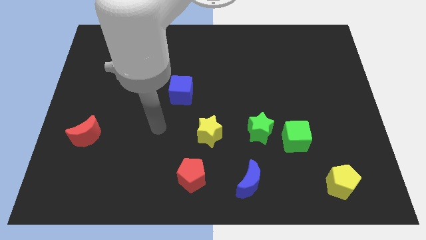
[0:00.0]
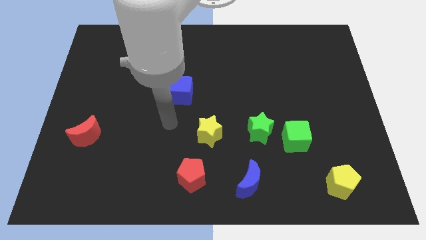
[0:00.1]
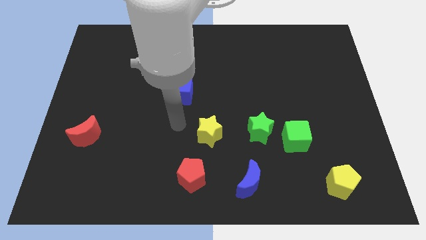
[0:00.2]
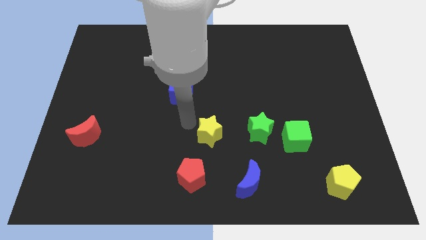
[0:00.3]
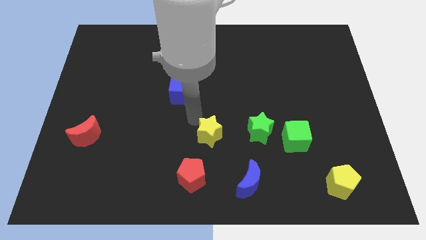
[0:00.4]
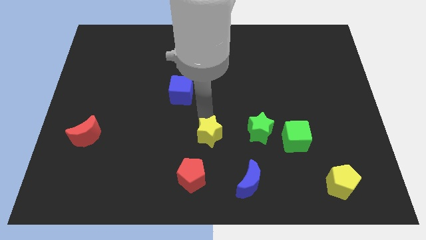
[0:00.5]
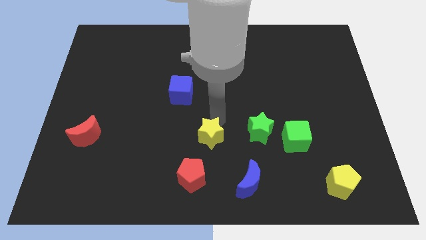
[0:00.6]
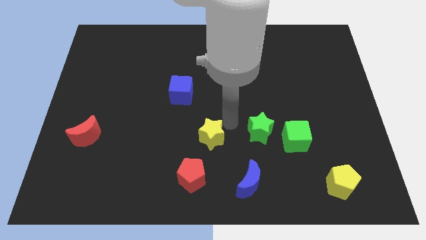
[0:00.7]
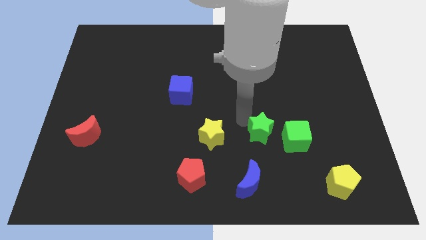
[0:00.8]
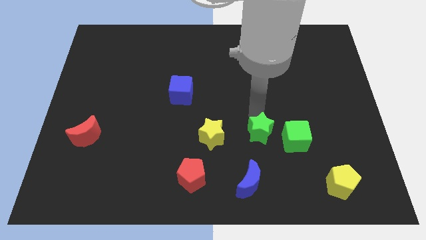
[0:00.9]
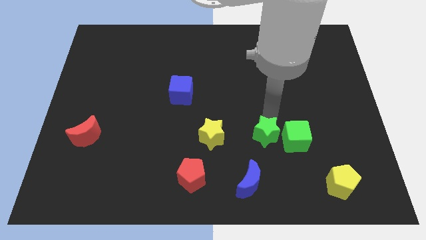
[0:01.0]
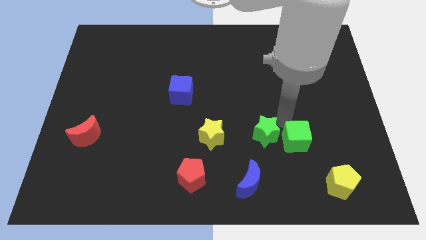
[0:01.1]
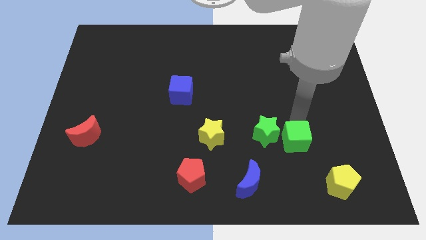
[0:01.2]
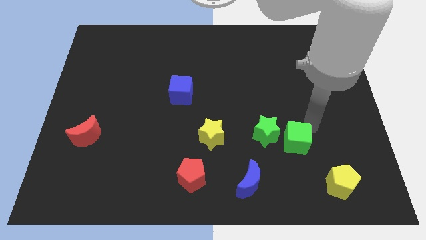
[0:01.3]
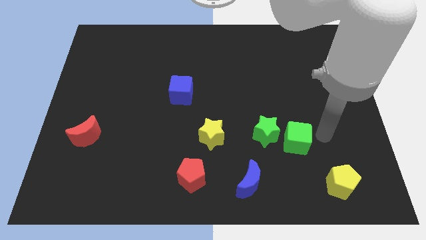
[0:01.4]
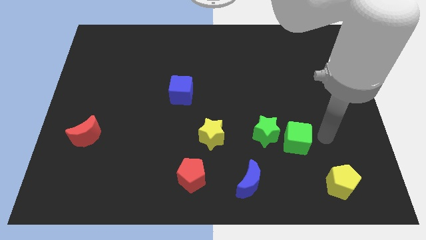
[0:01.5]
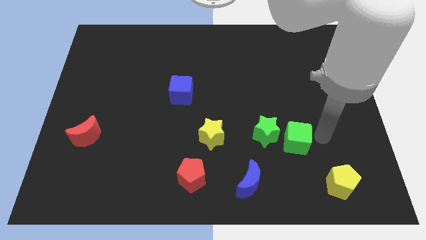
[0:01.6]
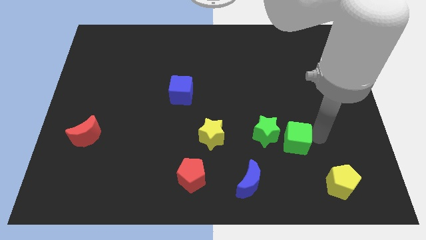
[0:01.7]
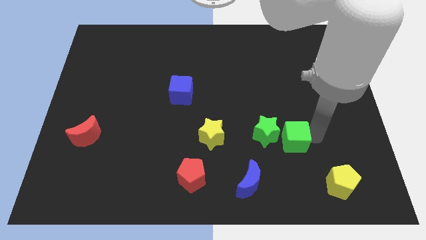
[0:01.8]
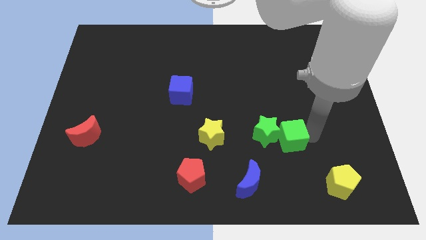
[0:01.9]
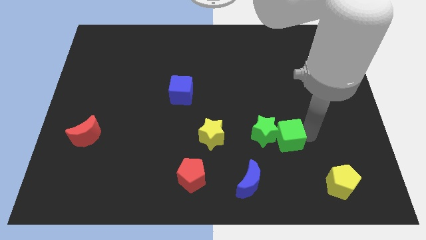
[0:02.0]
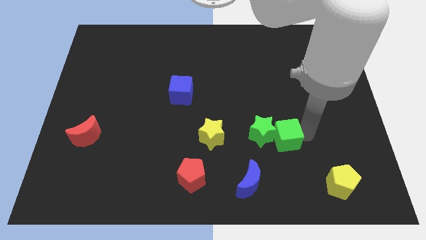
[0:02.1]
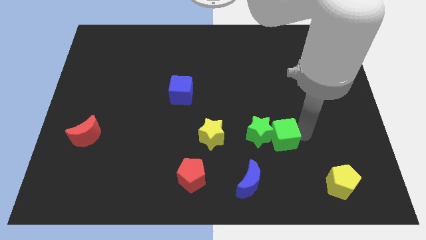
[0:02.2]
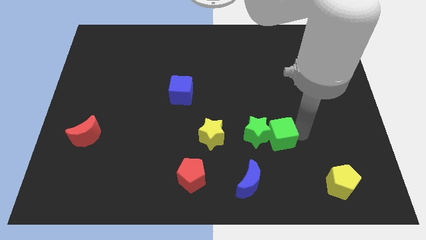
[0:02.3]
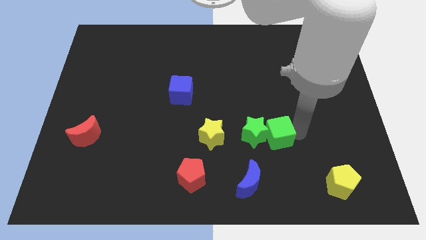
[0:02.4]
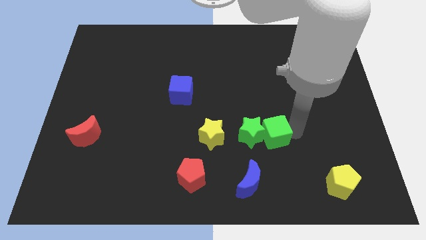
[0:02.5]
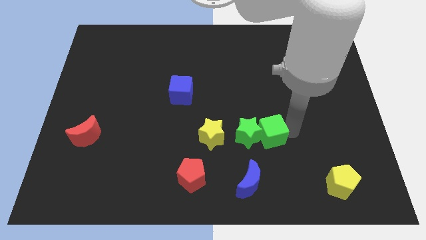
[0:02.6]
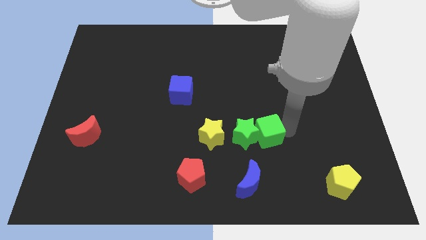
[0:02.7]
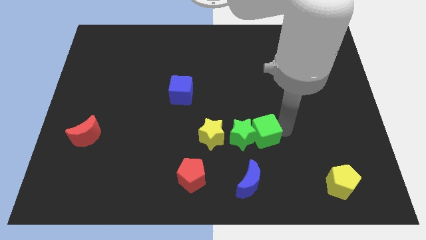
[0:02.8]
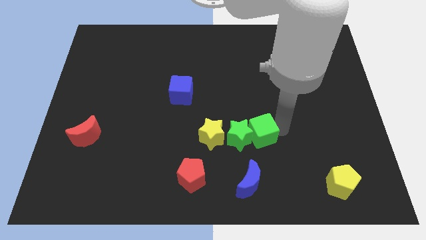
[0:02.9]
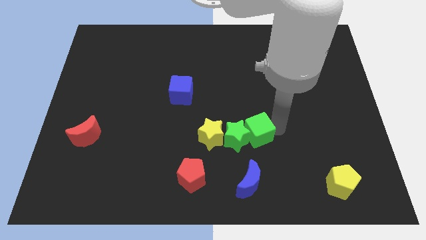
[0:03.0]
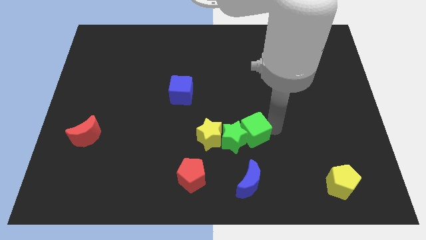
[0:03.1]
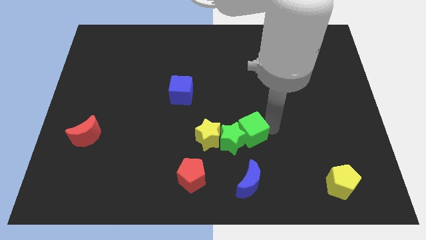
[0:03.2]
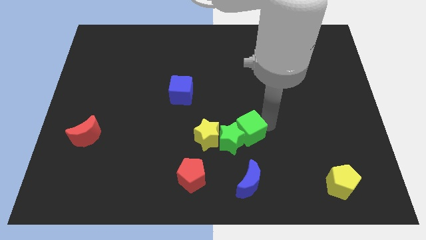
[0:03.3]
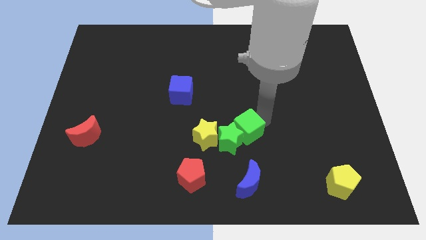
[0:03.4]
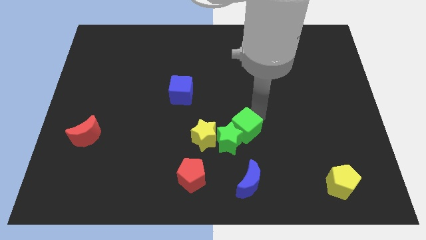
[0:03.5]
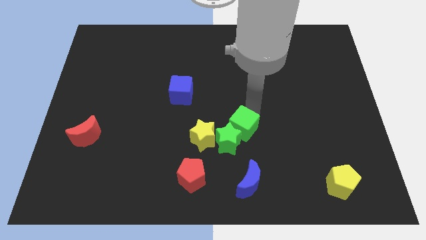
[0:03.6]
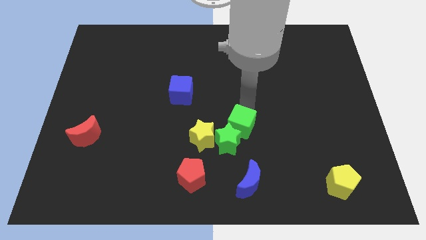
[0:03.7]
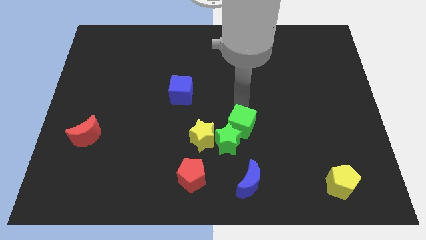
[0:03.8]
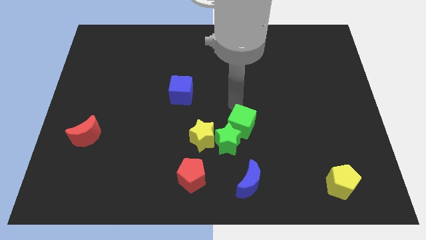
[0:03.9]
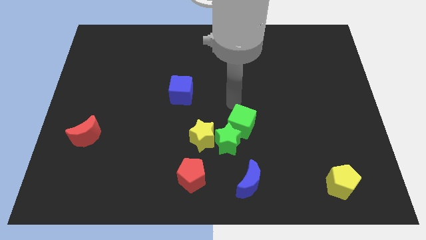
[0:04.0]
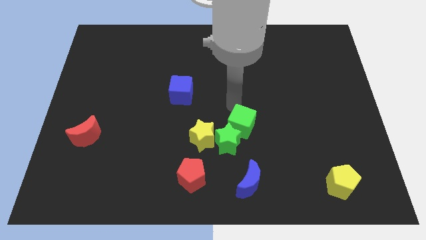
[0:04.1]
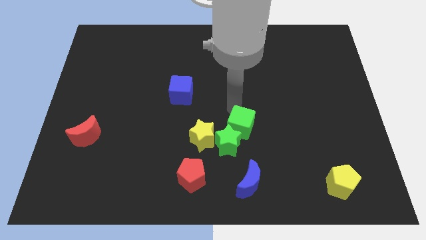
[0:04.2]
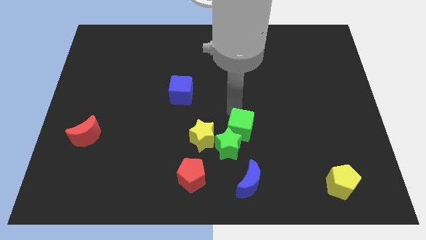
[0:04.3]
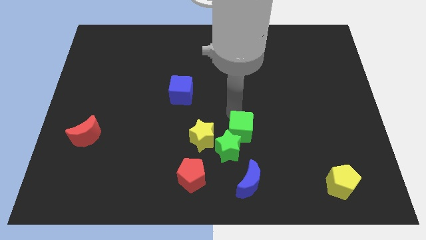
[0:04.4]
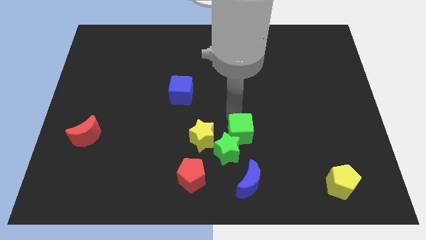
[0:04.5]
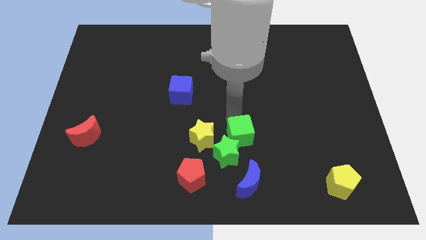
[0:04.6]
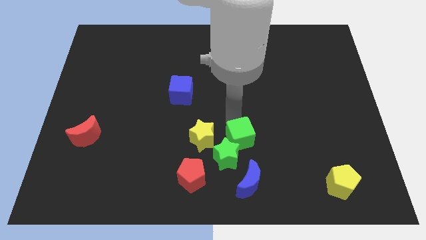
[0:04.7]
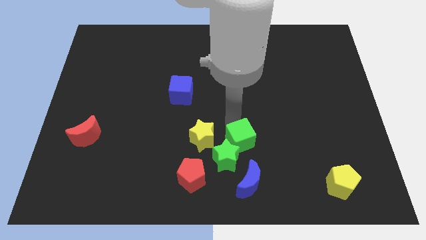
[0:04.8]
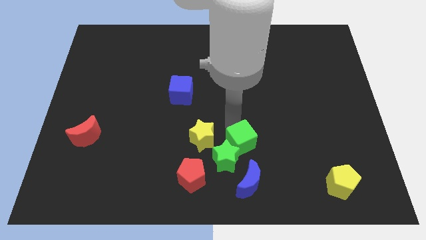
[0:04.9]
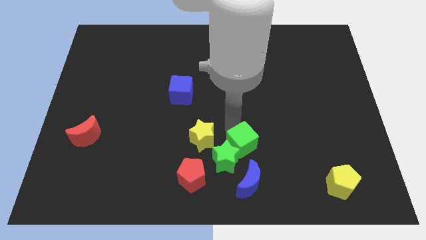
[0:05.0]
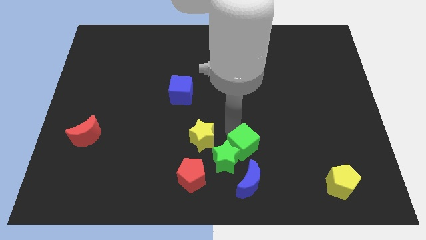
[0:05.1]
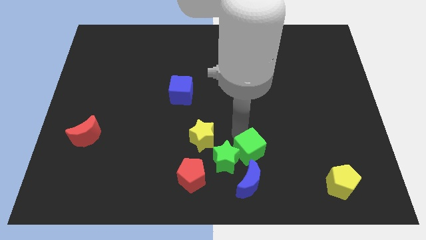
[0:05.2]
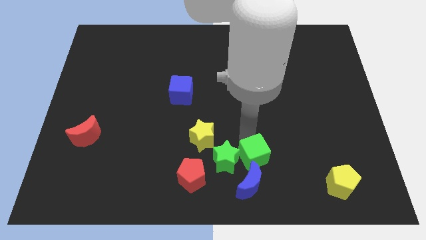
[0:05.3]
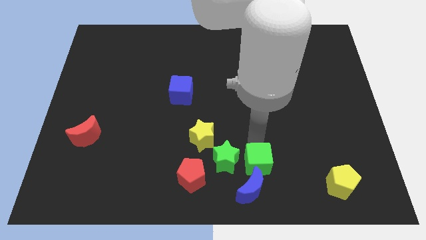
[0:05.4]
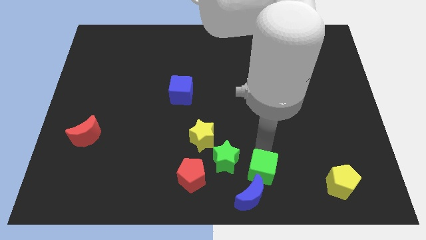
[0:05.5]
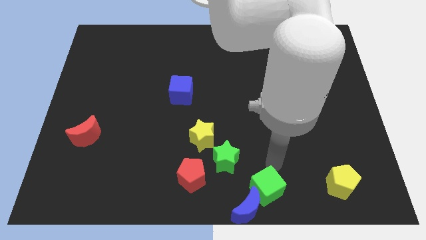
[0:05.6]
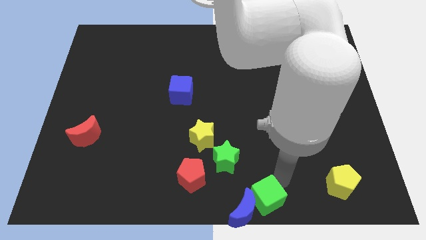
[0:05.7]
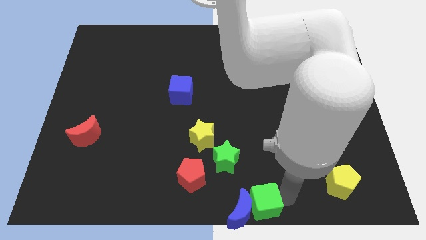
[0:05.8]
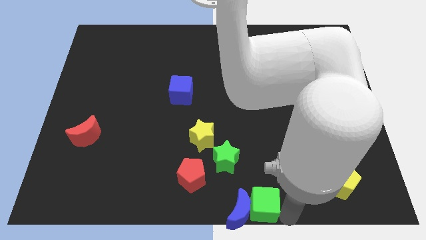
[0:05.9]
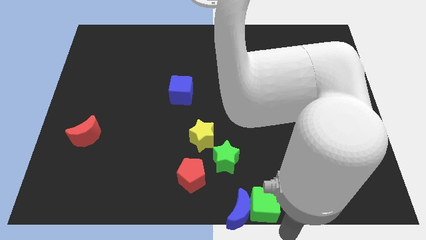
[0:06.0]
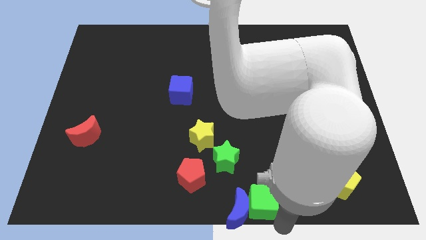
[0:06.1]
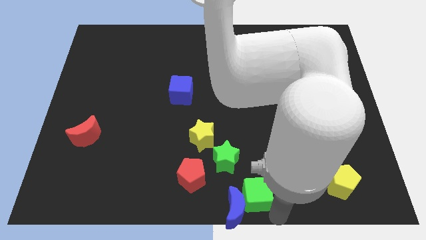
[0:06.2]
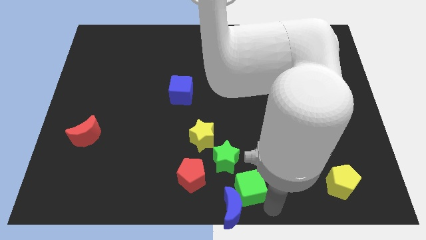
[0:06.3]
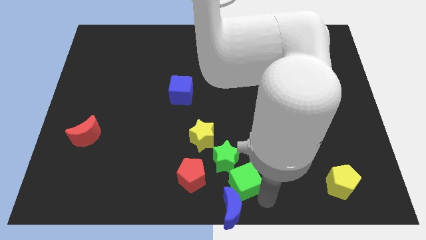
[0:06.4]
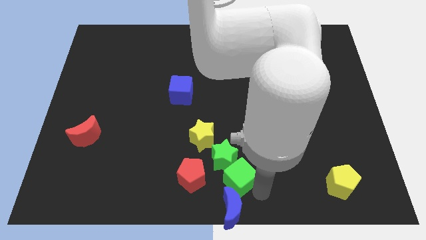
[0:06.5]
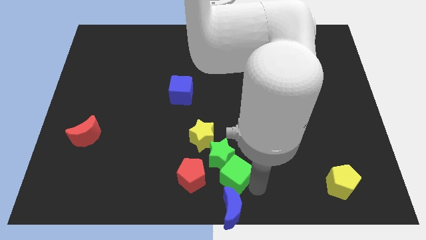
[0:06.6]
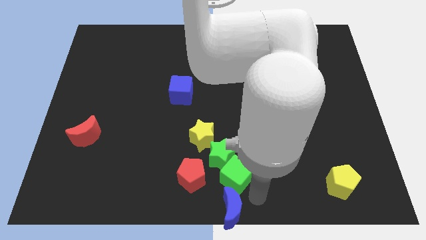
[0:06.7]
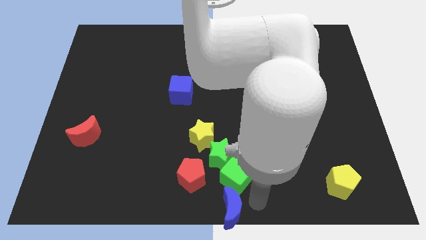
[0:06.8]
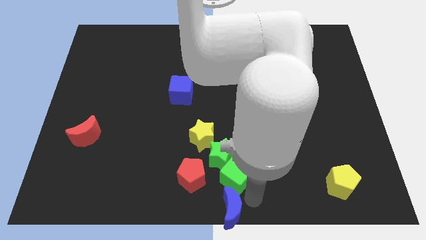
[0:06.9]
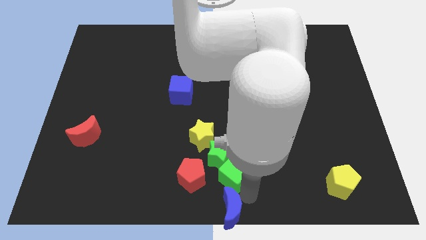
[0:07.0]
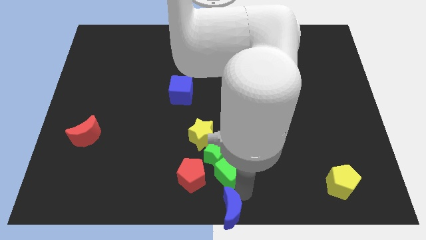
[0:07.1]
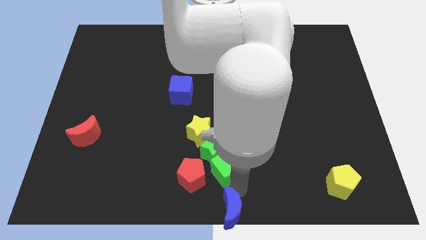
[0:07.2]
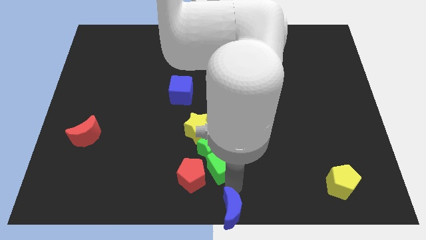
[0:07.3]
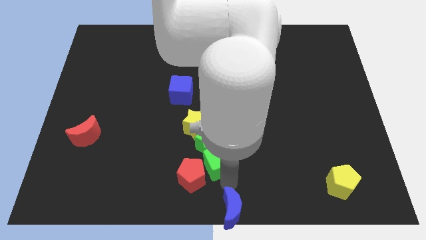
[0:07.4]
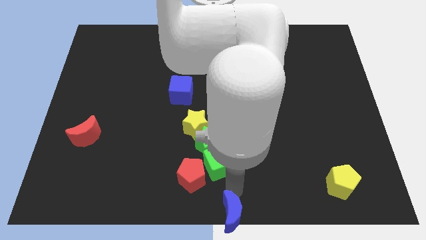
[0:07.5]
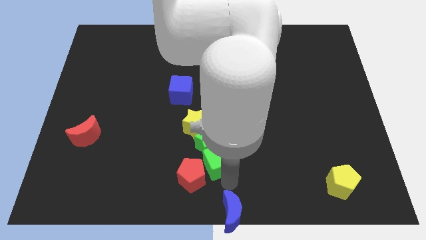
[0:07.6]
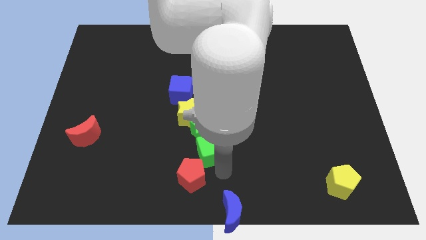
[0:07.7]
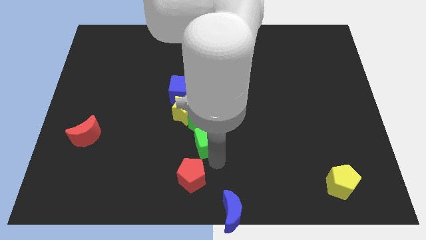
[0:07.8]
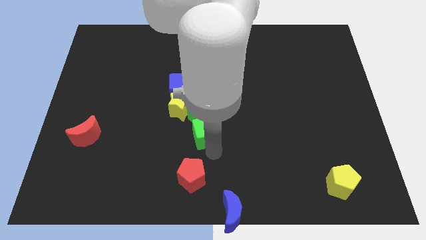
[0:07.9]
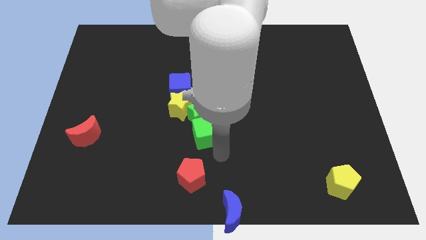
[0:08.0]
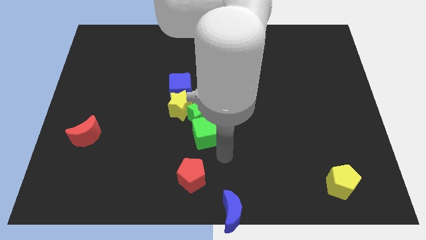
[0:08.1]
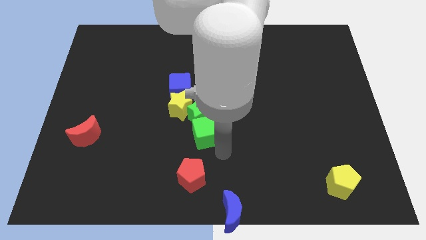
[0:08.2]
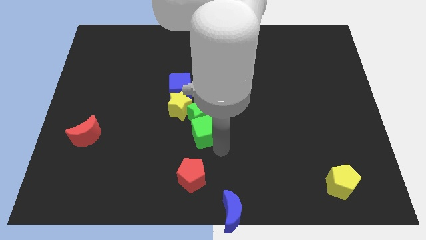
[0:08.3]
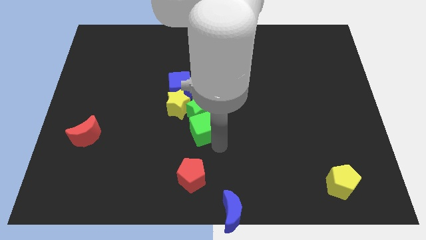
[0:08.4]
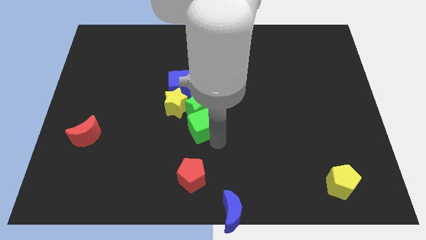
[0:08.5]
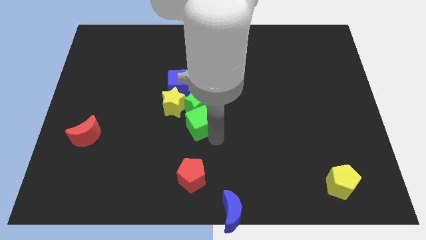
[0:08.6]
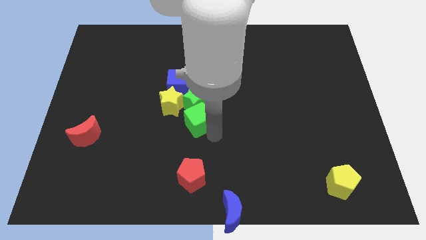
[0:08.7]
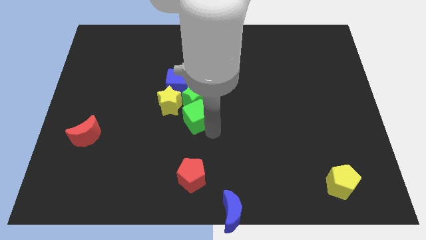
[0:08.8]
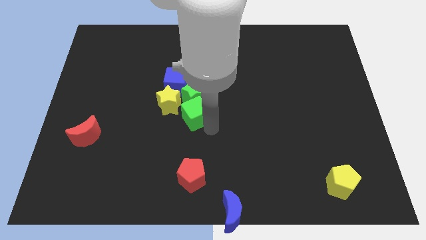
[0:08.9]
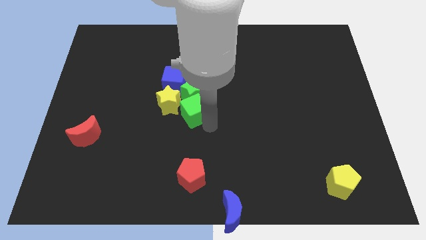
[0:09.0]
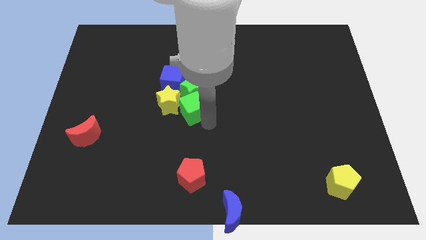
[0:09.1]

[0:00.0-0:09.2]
put the green cube towards the yellow star
